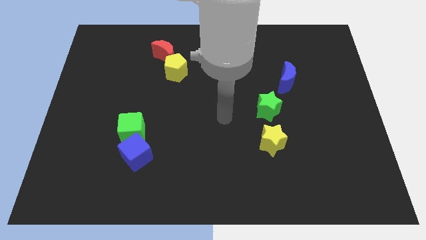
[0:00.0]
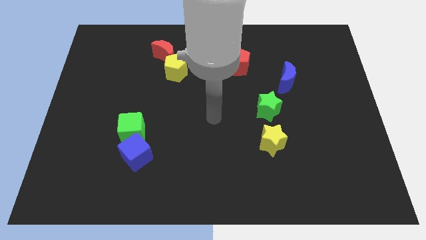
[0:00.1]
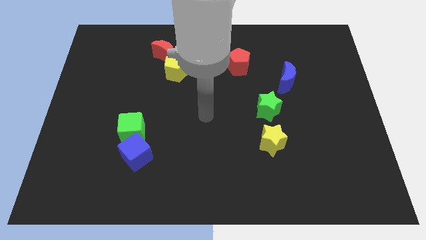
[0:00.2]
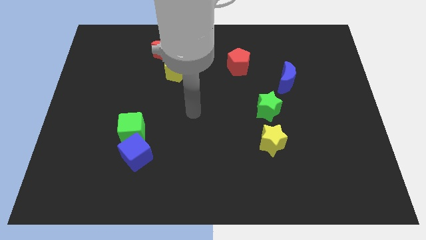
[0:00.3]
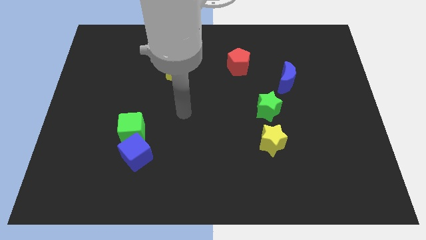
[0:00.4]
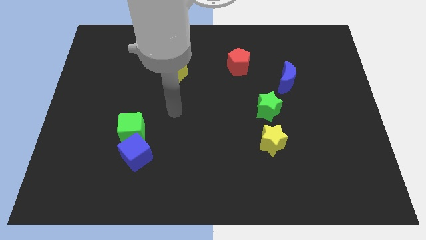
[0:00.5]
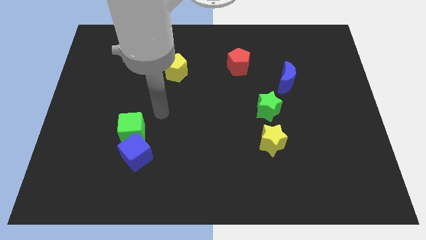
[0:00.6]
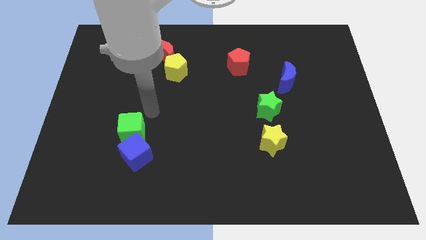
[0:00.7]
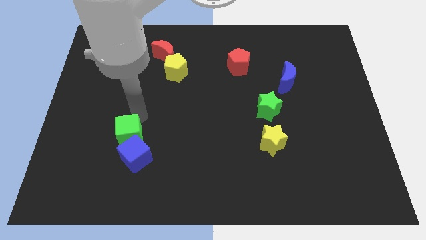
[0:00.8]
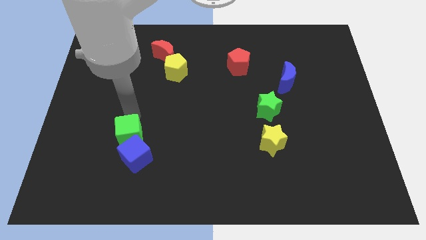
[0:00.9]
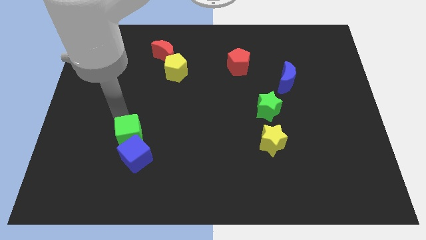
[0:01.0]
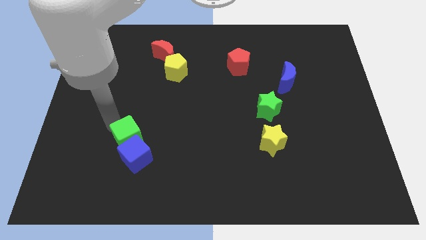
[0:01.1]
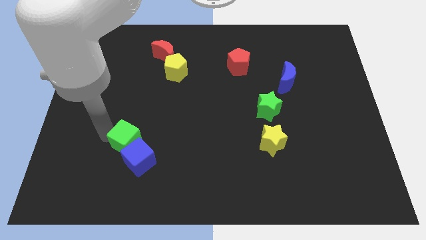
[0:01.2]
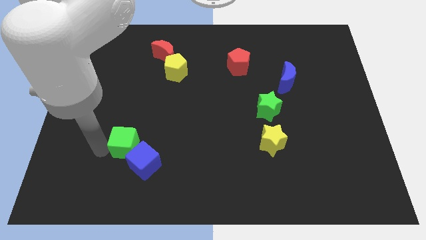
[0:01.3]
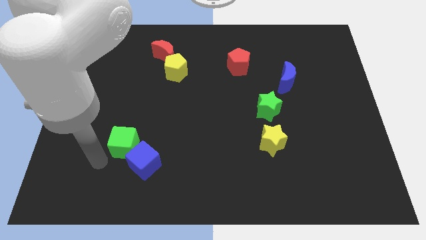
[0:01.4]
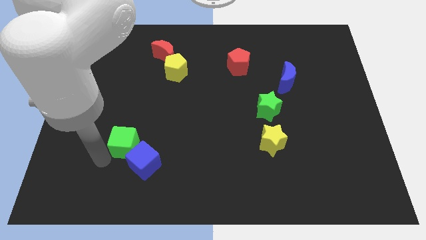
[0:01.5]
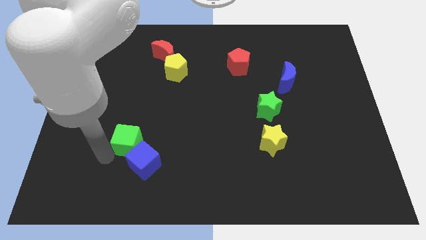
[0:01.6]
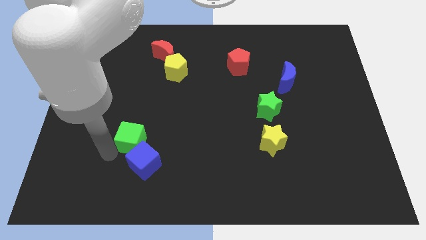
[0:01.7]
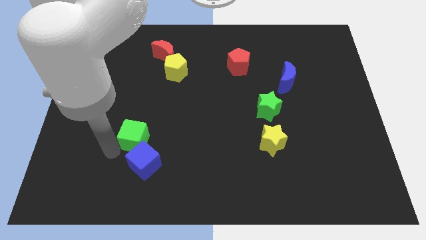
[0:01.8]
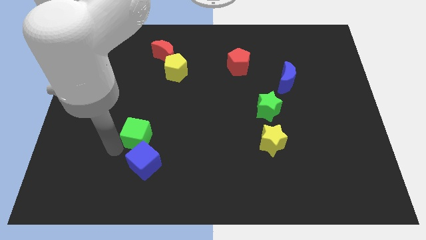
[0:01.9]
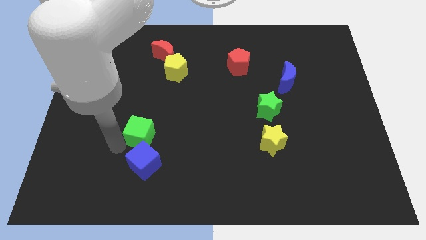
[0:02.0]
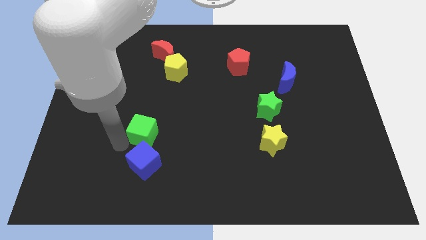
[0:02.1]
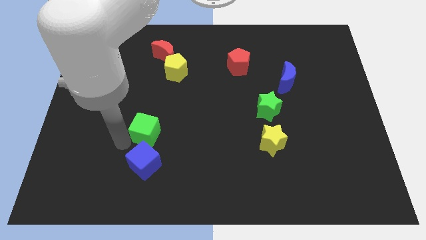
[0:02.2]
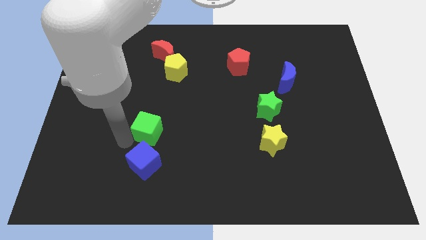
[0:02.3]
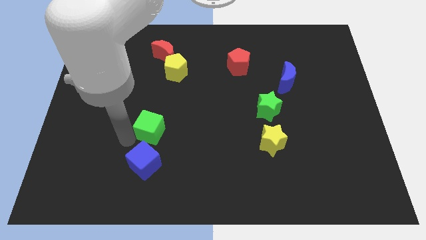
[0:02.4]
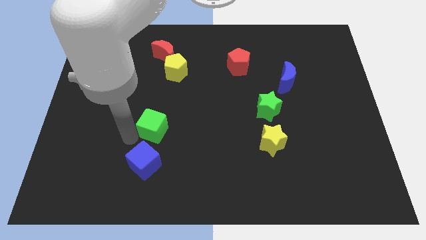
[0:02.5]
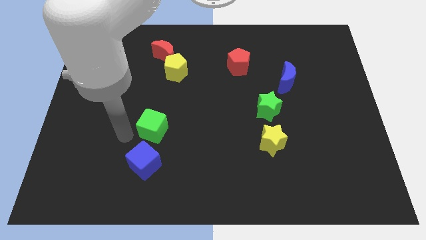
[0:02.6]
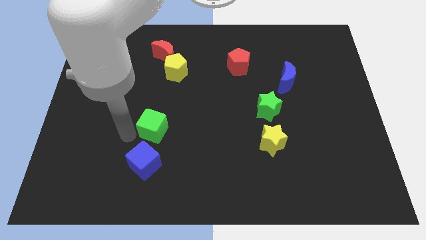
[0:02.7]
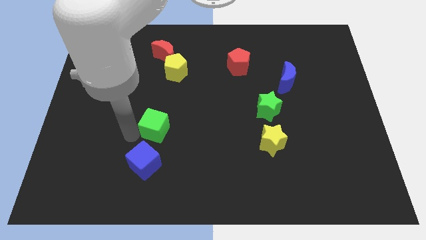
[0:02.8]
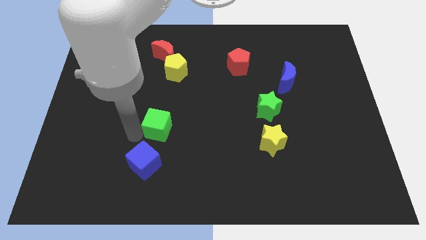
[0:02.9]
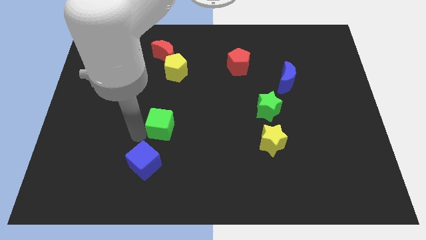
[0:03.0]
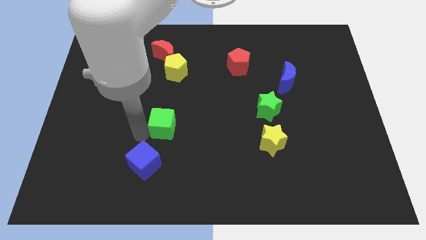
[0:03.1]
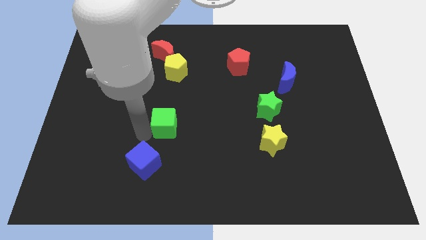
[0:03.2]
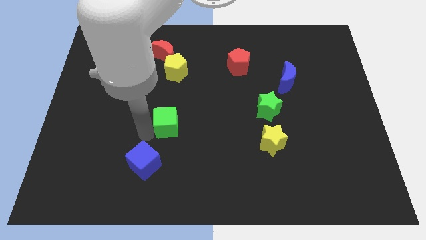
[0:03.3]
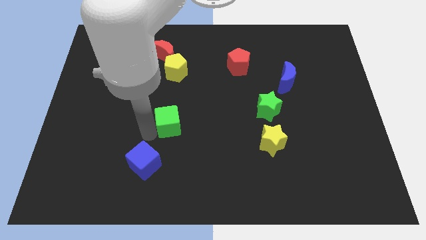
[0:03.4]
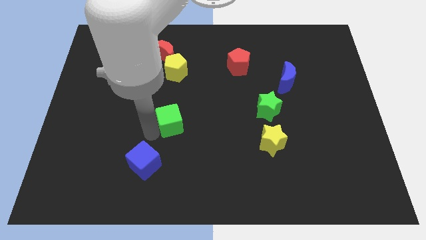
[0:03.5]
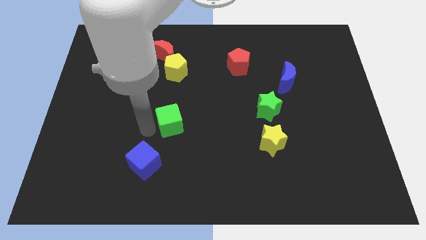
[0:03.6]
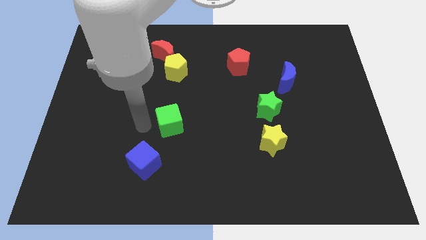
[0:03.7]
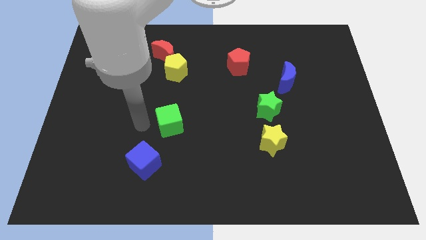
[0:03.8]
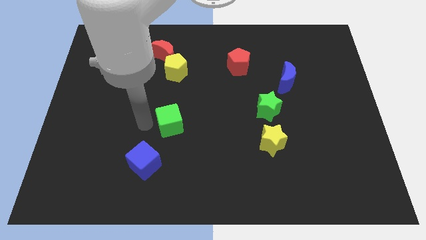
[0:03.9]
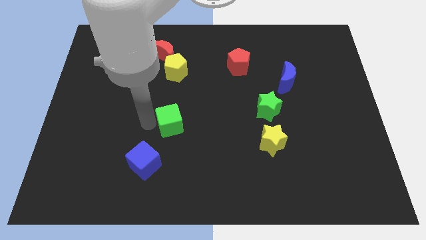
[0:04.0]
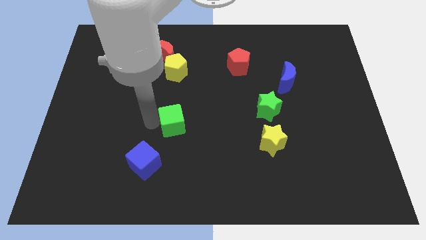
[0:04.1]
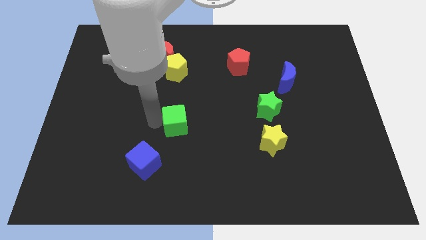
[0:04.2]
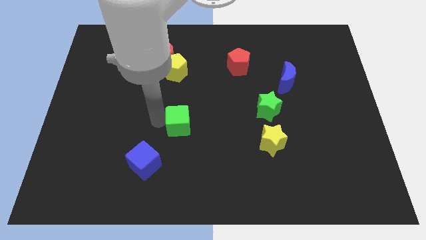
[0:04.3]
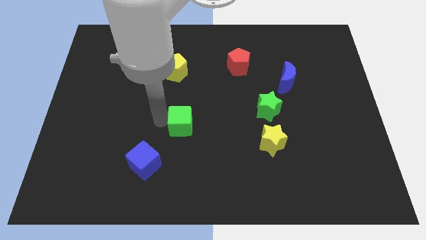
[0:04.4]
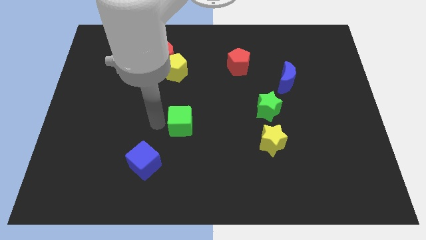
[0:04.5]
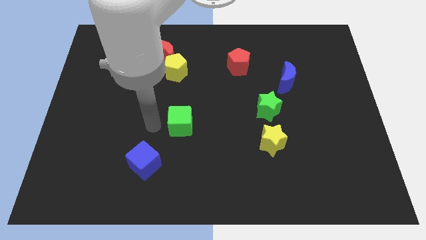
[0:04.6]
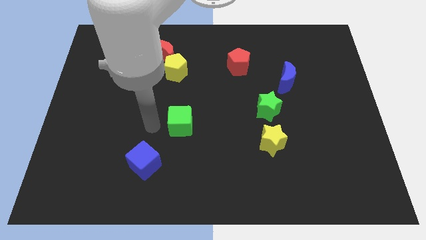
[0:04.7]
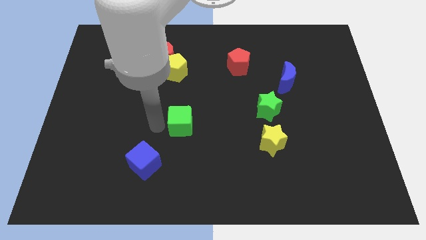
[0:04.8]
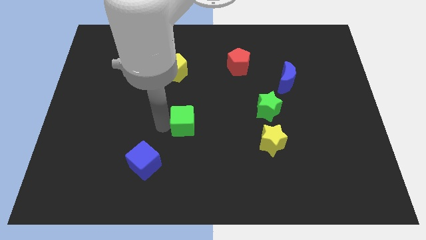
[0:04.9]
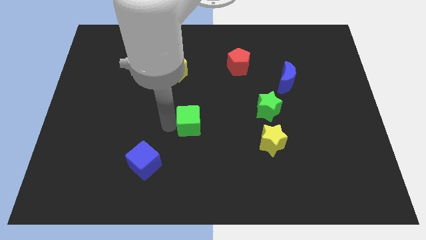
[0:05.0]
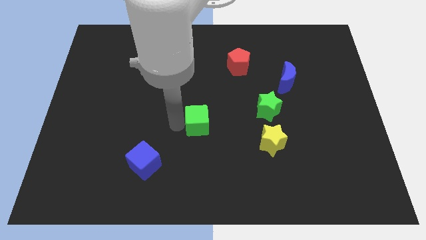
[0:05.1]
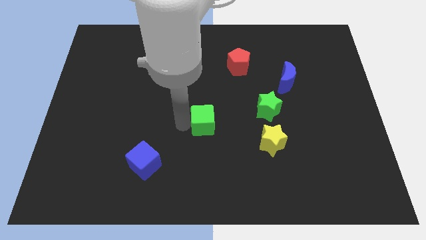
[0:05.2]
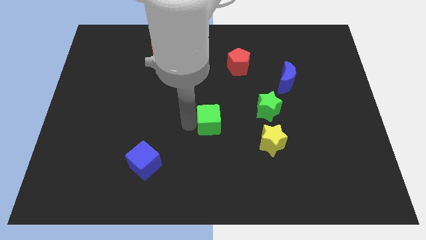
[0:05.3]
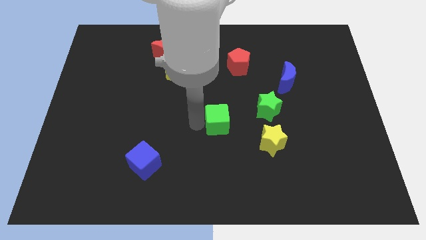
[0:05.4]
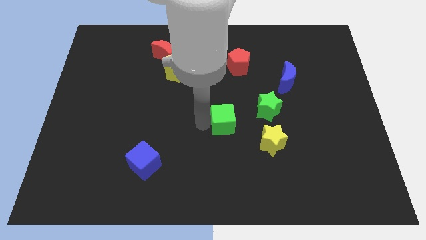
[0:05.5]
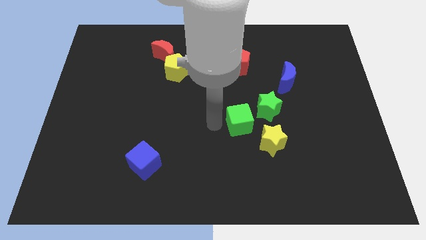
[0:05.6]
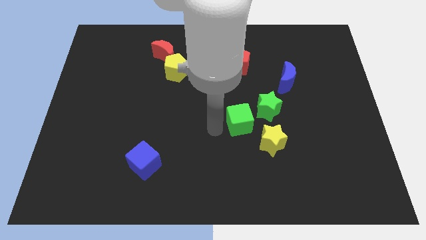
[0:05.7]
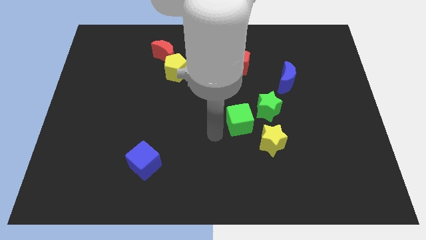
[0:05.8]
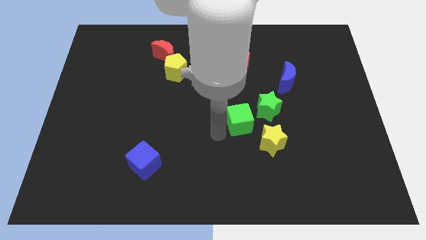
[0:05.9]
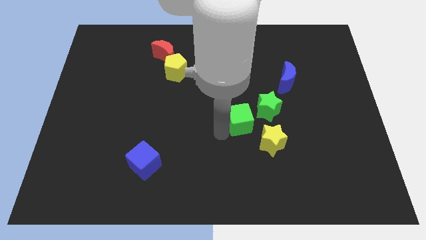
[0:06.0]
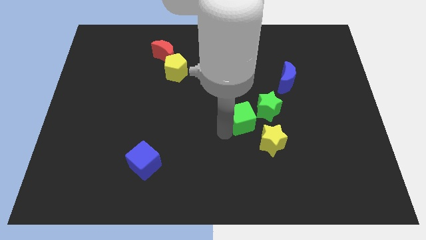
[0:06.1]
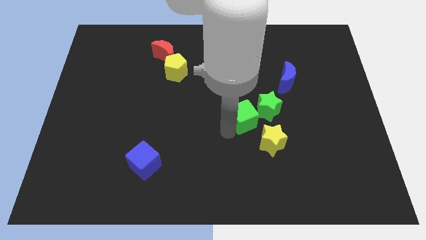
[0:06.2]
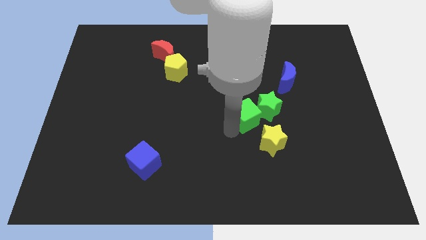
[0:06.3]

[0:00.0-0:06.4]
slide the green cube close to the green star

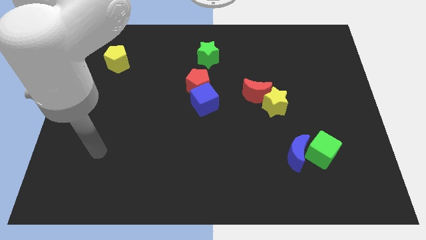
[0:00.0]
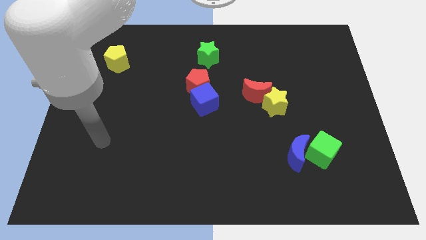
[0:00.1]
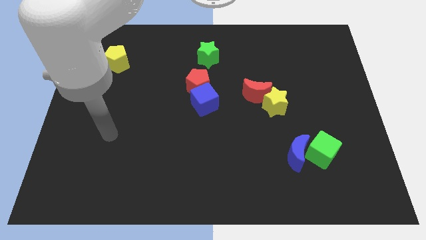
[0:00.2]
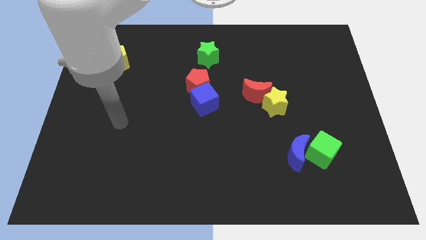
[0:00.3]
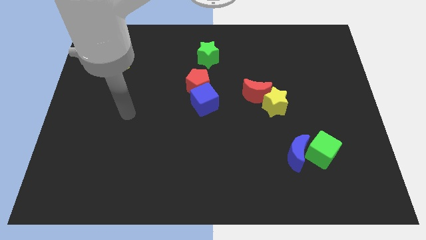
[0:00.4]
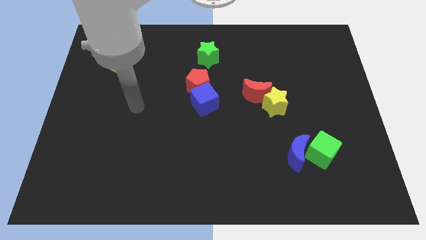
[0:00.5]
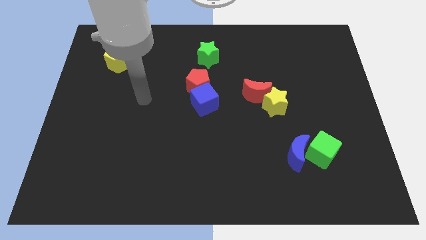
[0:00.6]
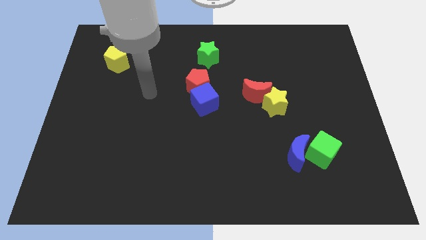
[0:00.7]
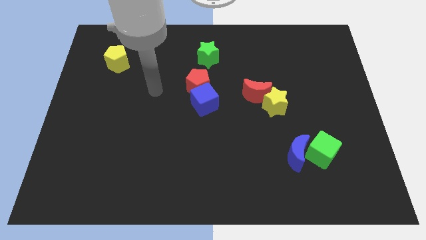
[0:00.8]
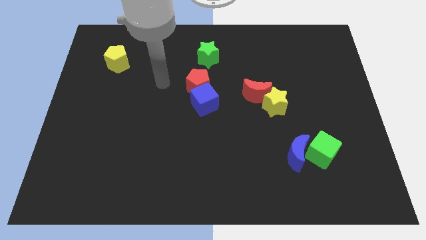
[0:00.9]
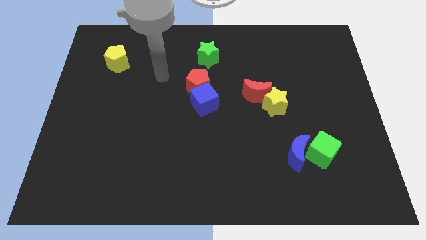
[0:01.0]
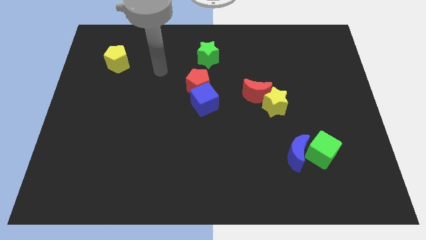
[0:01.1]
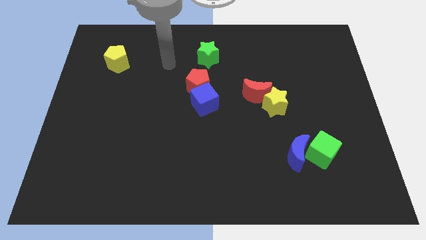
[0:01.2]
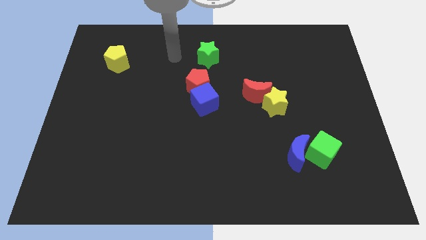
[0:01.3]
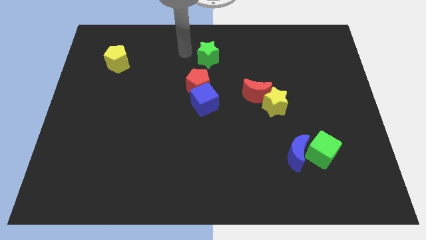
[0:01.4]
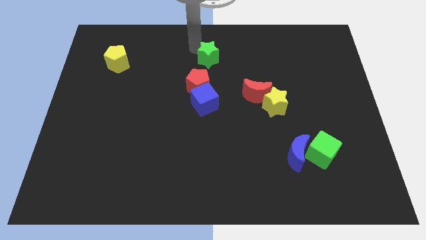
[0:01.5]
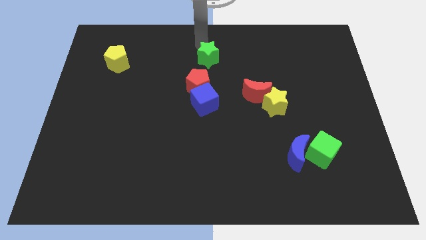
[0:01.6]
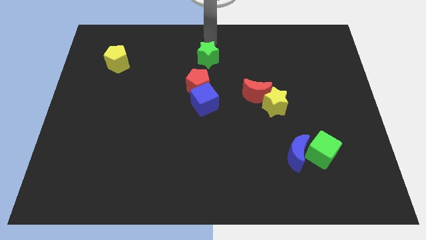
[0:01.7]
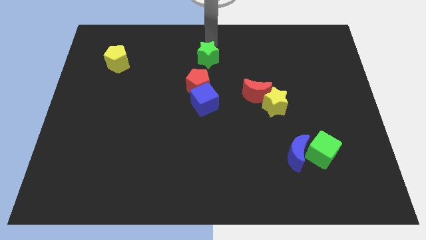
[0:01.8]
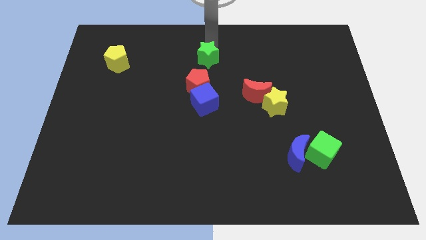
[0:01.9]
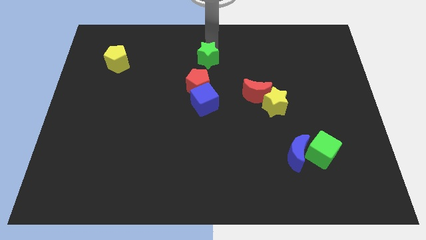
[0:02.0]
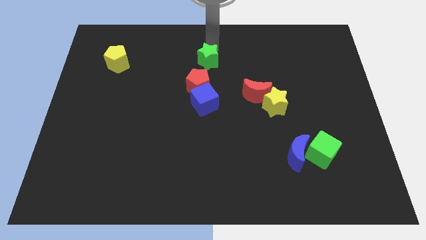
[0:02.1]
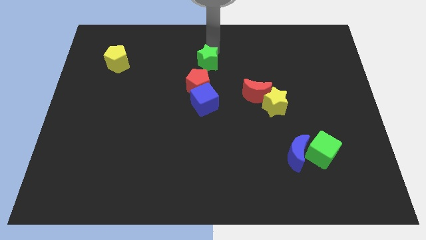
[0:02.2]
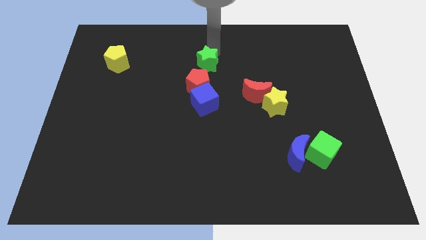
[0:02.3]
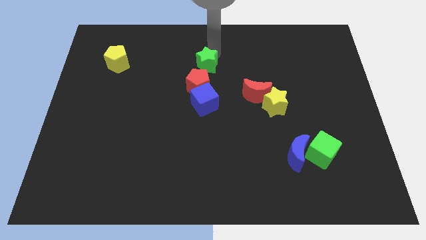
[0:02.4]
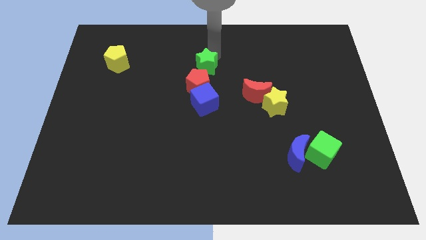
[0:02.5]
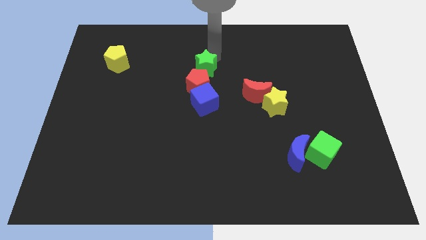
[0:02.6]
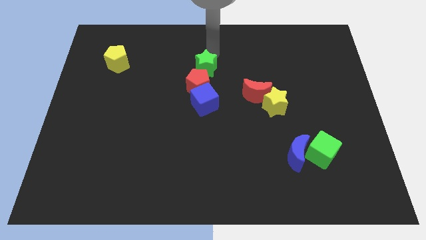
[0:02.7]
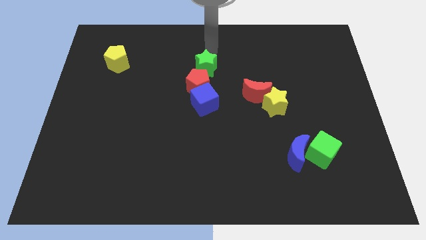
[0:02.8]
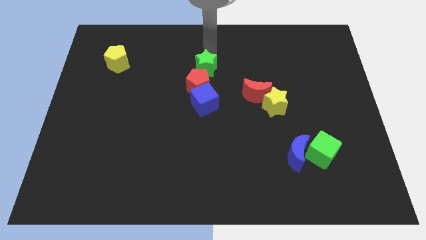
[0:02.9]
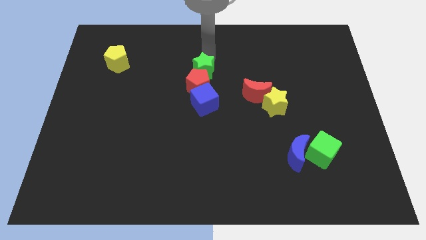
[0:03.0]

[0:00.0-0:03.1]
move the green star to the red pentagon
